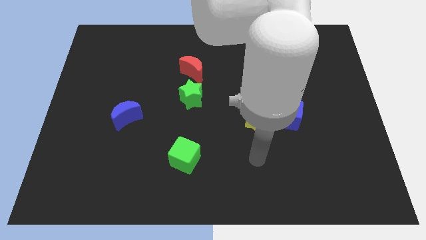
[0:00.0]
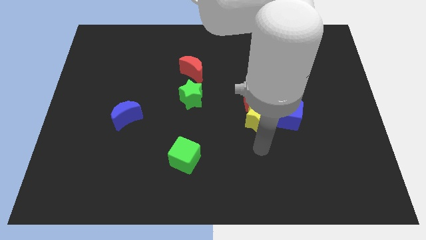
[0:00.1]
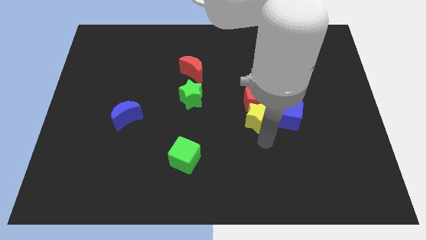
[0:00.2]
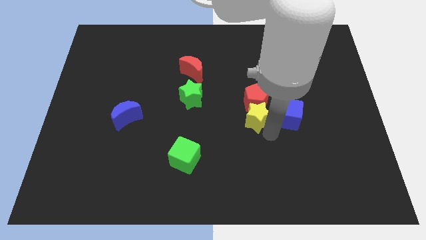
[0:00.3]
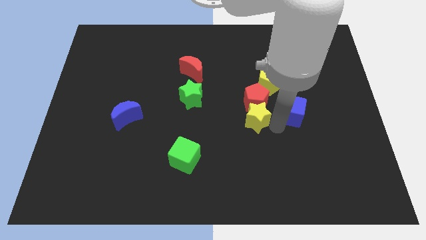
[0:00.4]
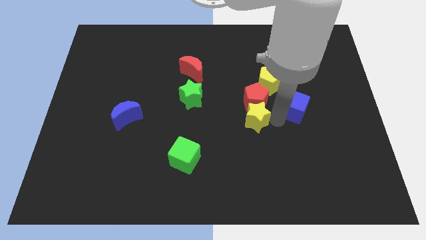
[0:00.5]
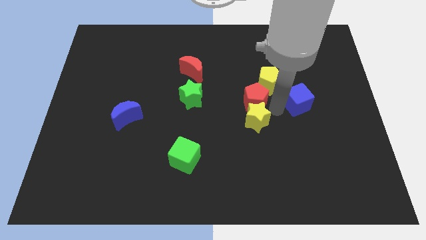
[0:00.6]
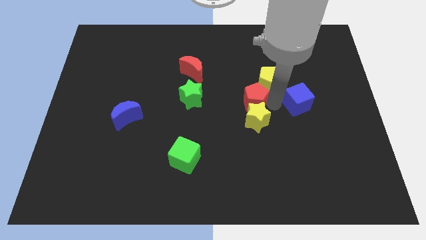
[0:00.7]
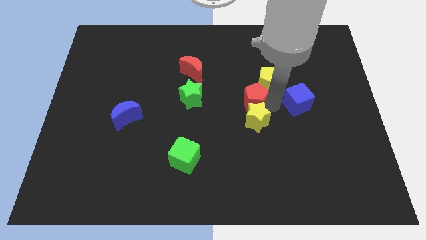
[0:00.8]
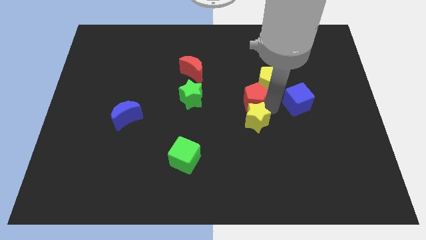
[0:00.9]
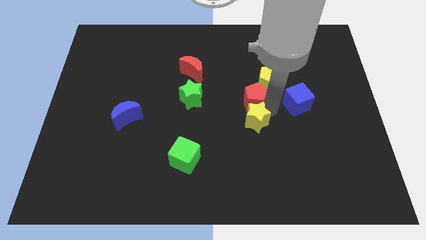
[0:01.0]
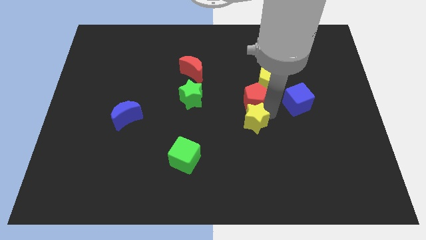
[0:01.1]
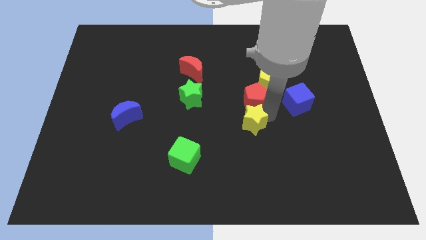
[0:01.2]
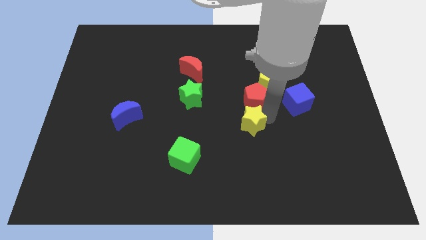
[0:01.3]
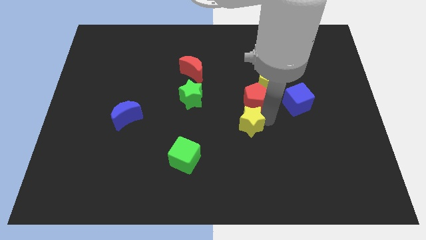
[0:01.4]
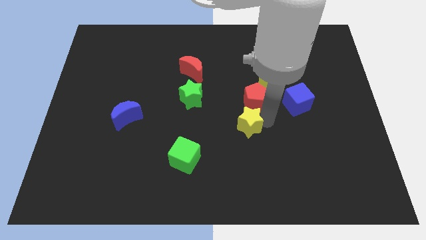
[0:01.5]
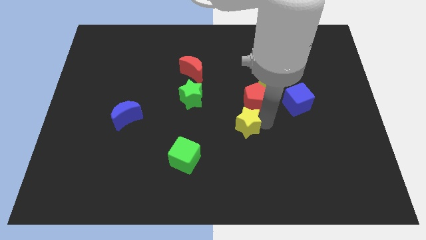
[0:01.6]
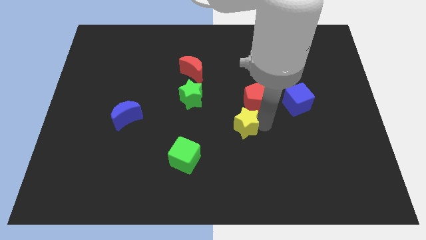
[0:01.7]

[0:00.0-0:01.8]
separate the yellow star from the red pentagon and blue cube

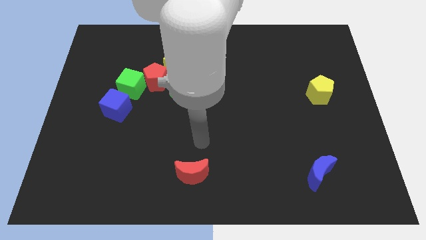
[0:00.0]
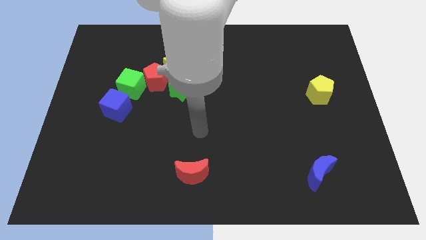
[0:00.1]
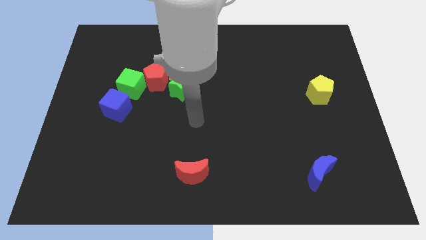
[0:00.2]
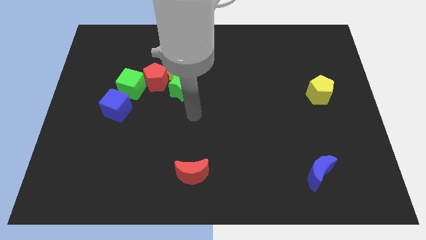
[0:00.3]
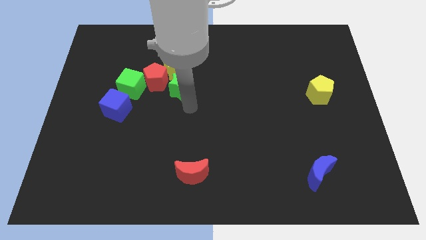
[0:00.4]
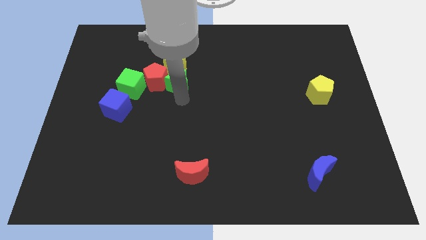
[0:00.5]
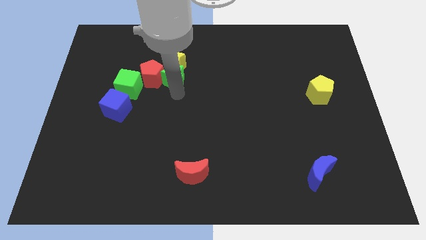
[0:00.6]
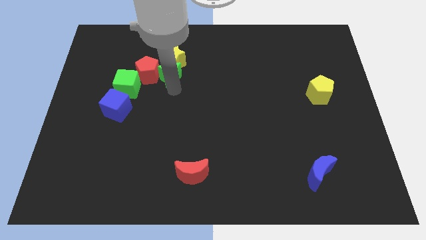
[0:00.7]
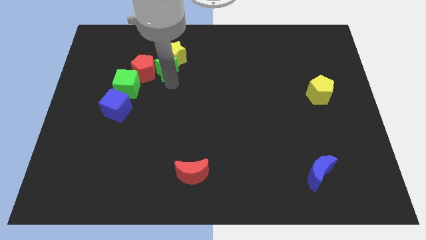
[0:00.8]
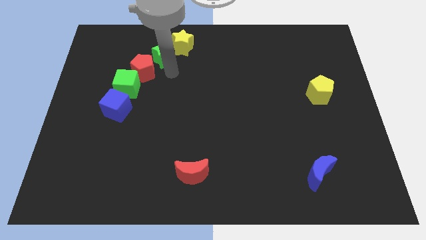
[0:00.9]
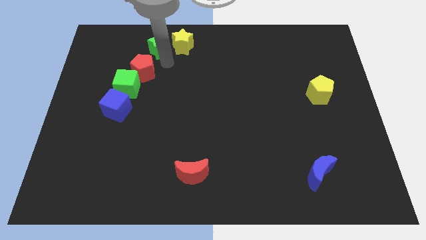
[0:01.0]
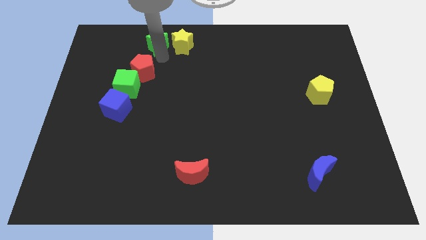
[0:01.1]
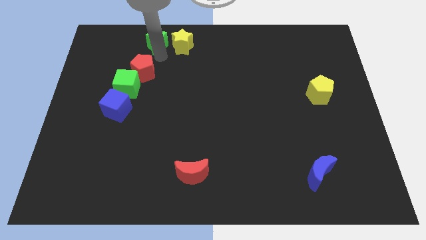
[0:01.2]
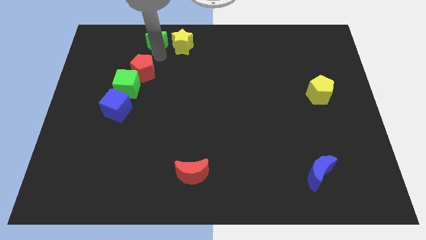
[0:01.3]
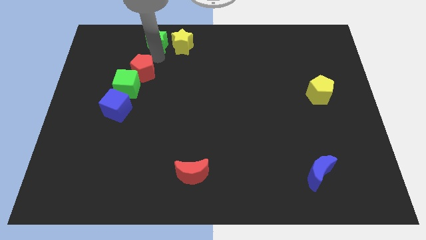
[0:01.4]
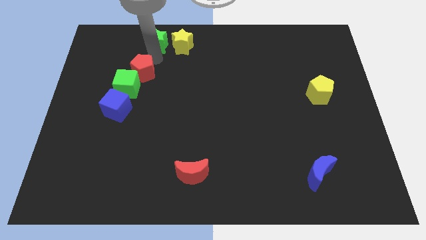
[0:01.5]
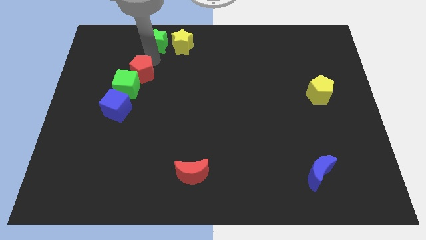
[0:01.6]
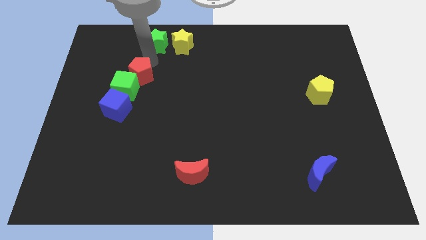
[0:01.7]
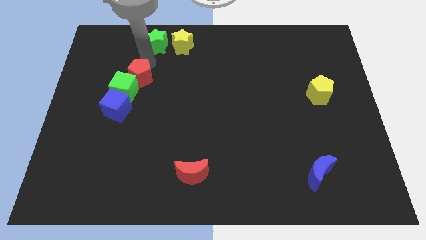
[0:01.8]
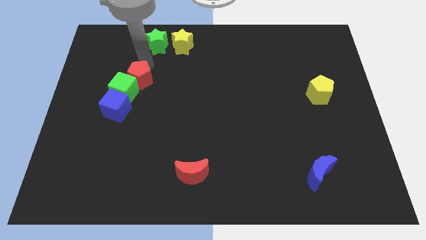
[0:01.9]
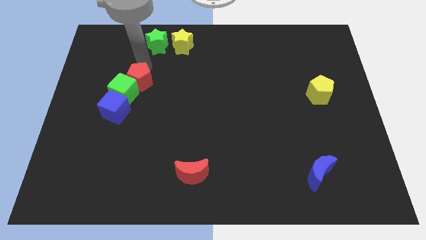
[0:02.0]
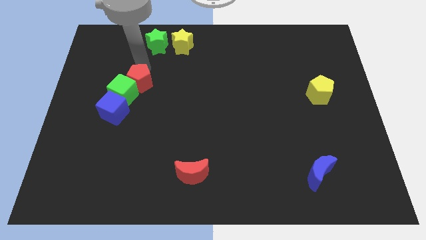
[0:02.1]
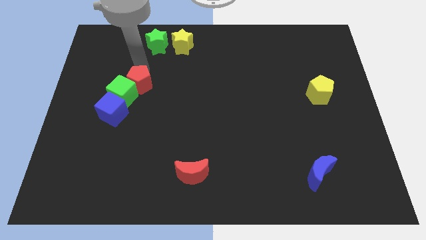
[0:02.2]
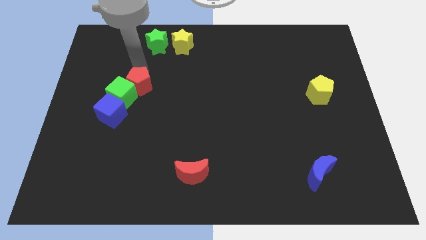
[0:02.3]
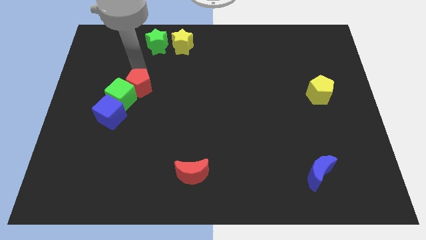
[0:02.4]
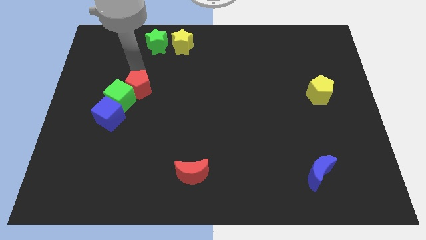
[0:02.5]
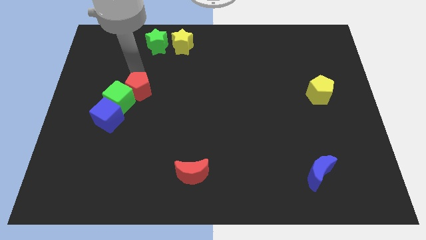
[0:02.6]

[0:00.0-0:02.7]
pull the red pentagon apart from the yellow star, green cube, and green star

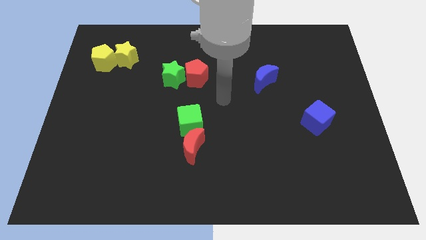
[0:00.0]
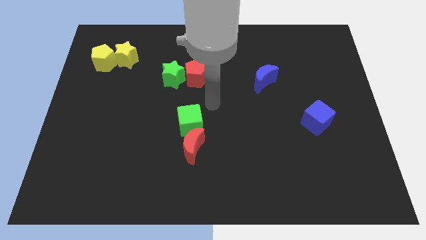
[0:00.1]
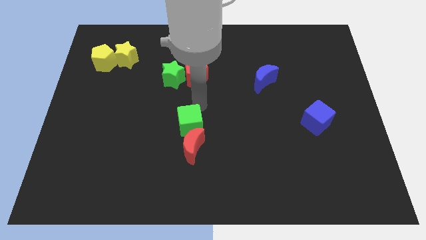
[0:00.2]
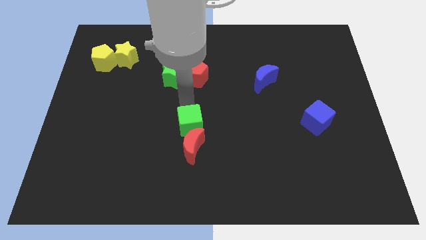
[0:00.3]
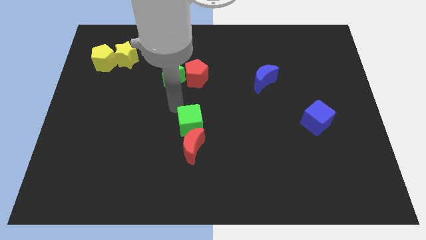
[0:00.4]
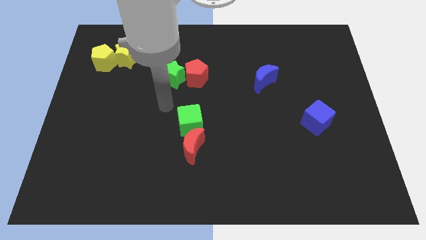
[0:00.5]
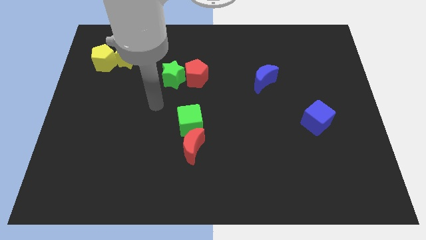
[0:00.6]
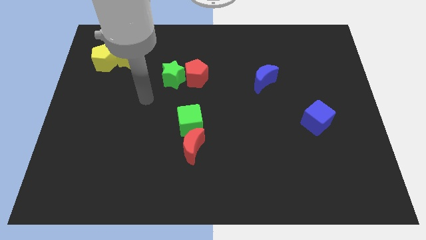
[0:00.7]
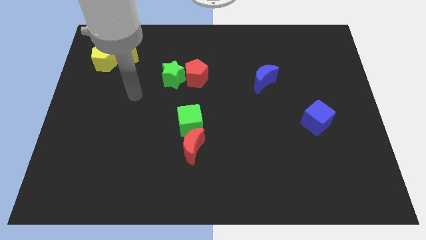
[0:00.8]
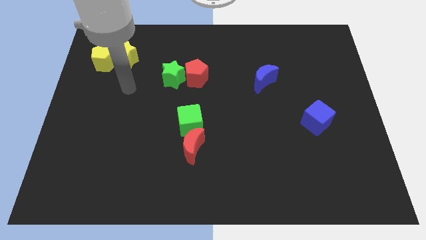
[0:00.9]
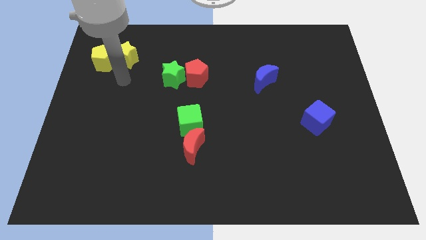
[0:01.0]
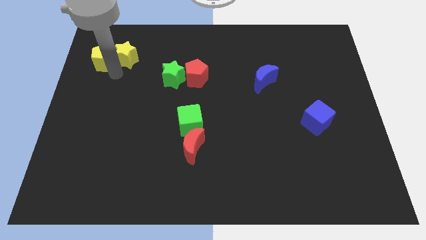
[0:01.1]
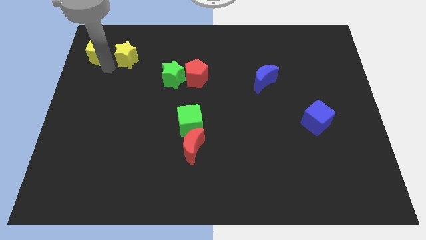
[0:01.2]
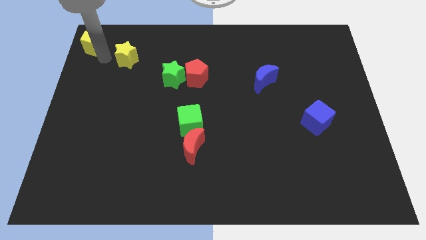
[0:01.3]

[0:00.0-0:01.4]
separate the yellow star from the yellow pentagon

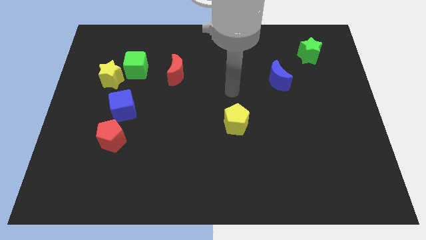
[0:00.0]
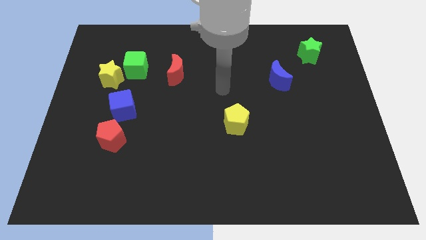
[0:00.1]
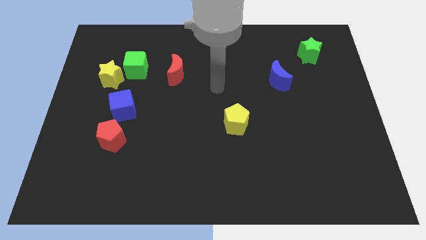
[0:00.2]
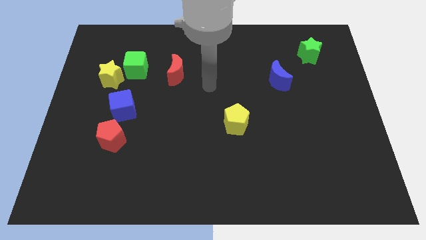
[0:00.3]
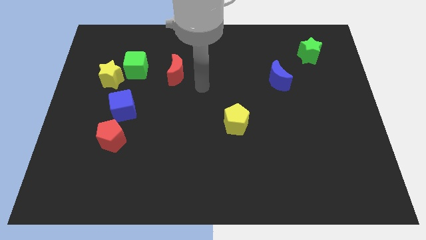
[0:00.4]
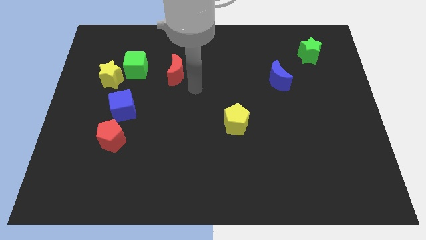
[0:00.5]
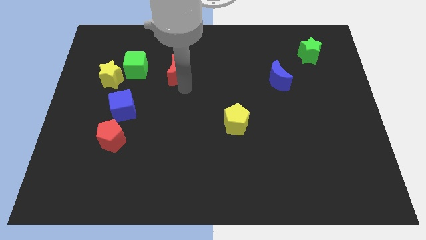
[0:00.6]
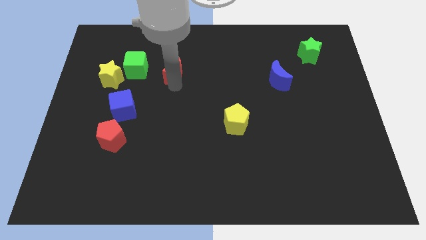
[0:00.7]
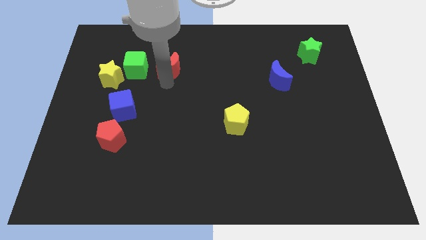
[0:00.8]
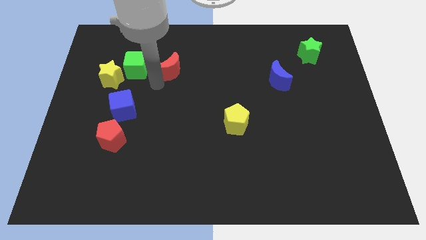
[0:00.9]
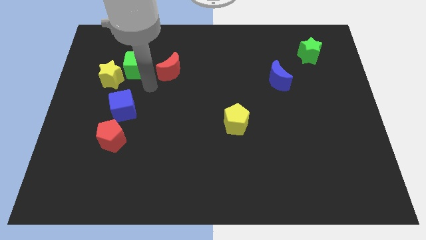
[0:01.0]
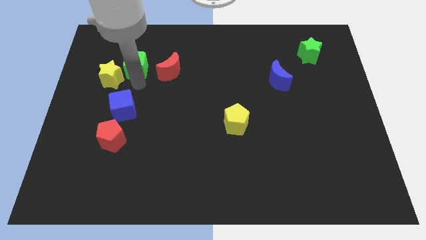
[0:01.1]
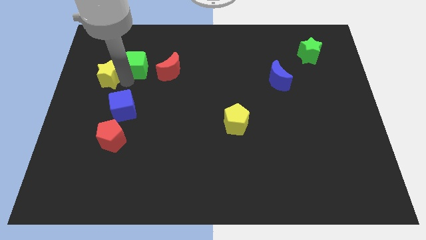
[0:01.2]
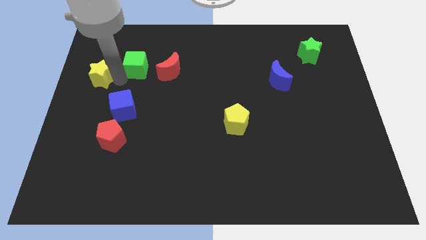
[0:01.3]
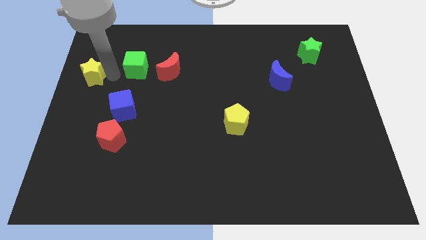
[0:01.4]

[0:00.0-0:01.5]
pull the green cube apart from the yellow star

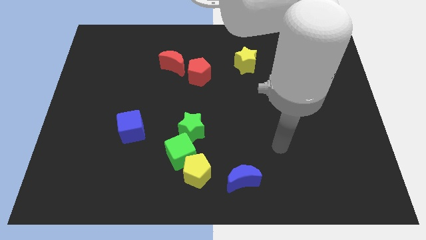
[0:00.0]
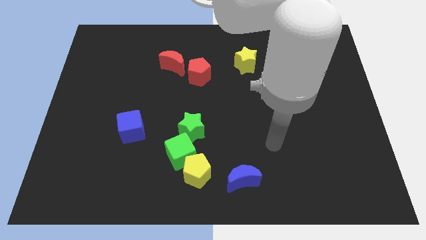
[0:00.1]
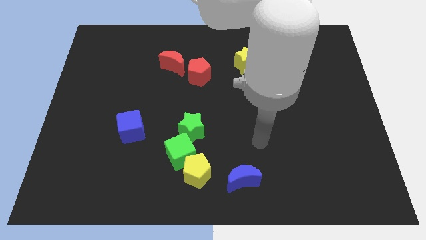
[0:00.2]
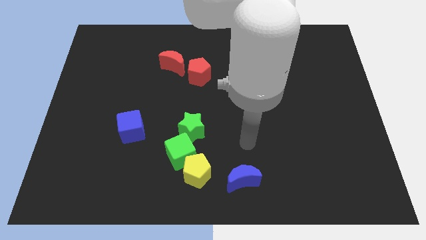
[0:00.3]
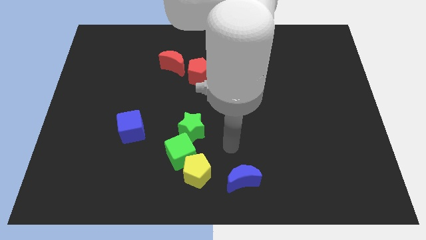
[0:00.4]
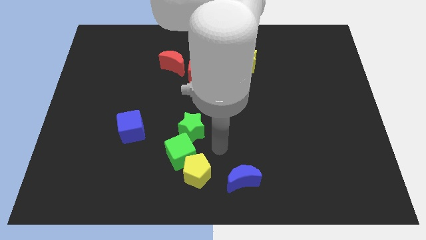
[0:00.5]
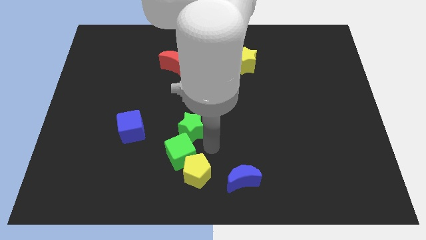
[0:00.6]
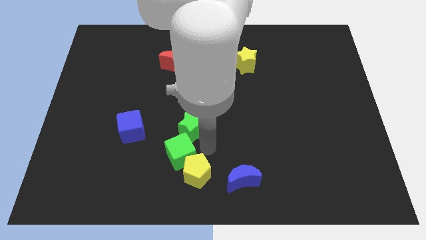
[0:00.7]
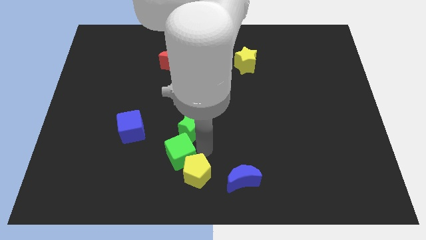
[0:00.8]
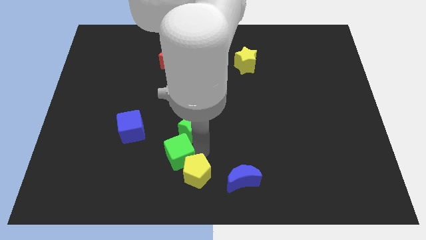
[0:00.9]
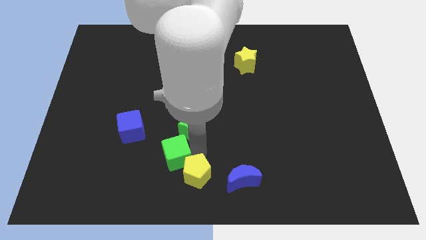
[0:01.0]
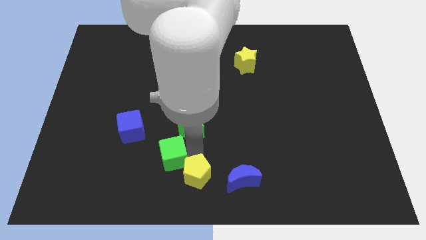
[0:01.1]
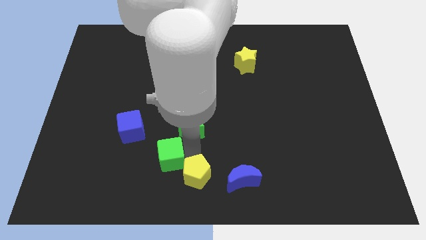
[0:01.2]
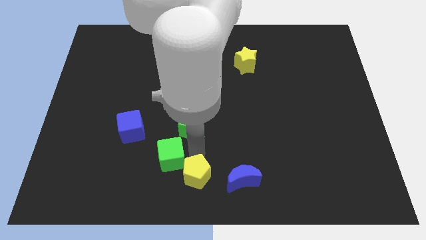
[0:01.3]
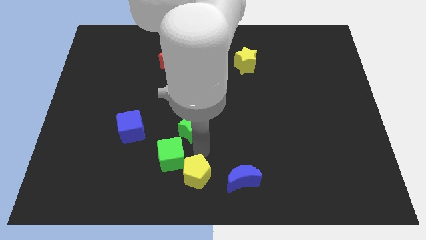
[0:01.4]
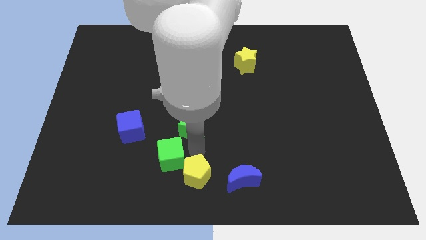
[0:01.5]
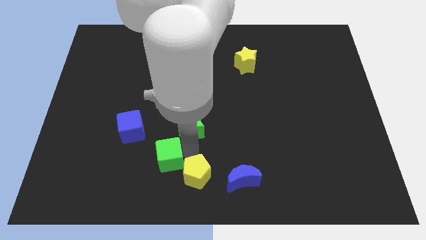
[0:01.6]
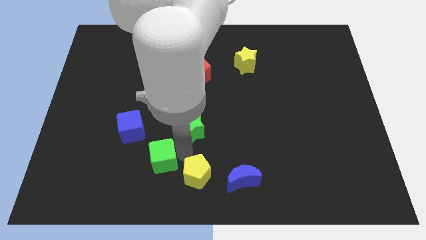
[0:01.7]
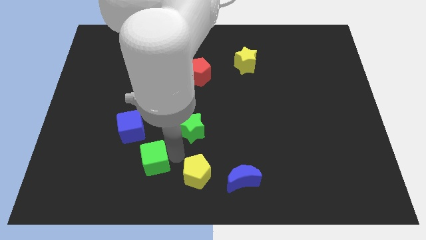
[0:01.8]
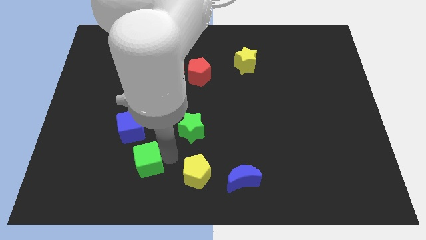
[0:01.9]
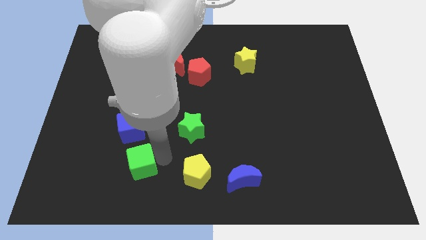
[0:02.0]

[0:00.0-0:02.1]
pull the green cube apart from the yellow pentagon and green star

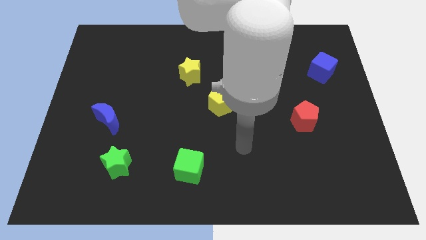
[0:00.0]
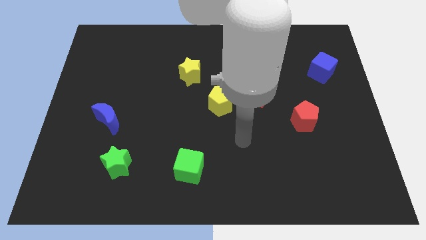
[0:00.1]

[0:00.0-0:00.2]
move the red moon away from the yellow pentagon
